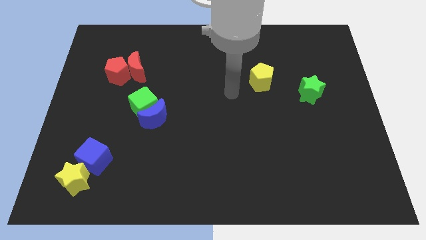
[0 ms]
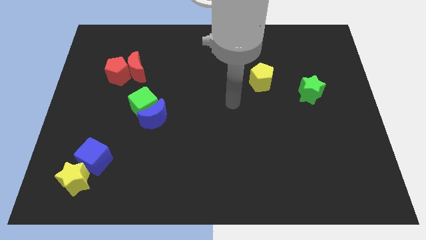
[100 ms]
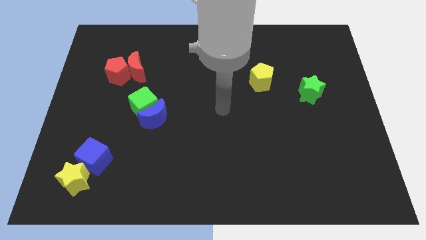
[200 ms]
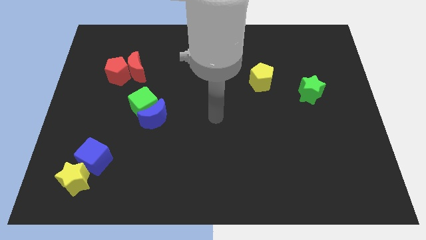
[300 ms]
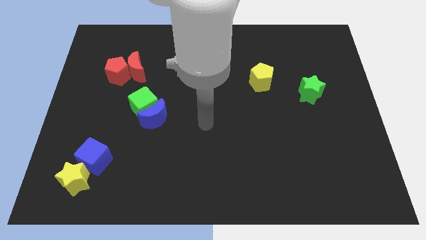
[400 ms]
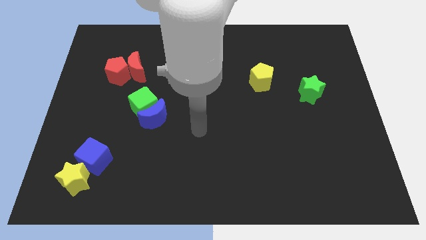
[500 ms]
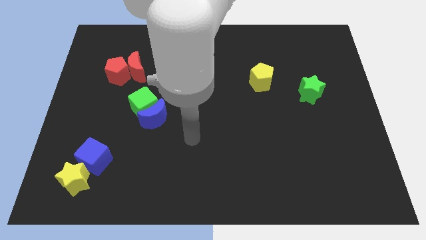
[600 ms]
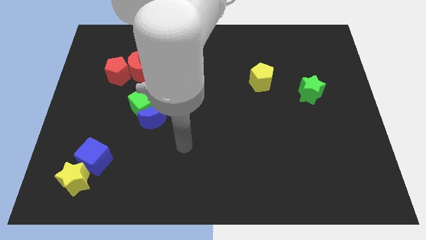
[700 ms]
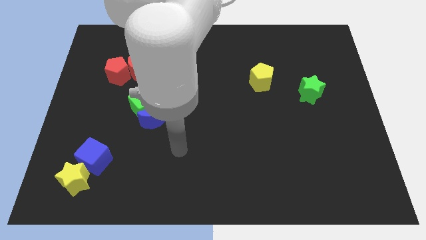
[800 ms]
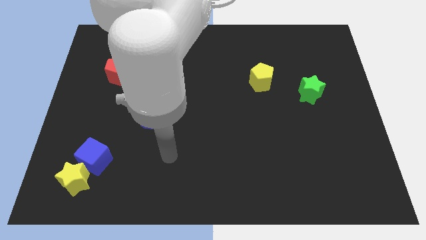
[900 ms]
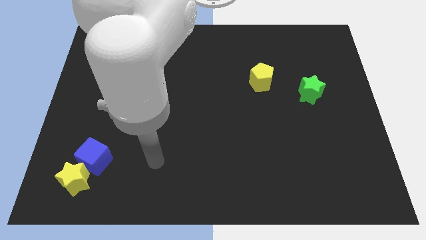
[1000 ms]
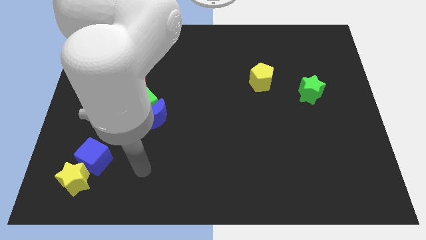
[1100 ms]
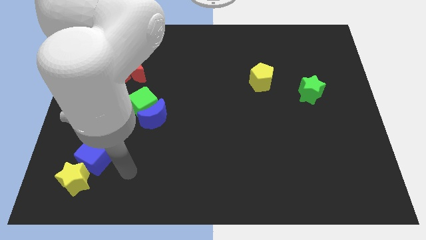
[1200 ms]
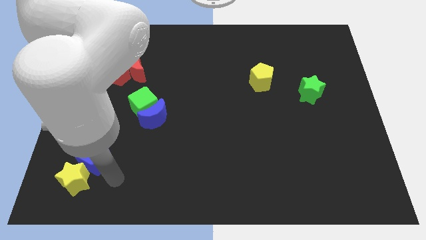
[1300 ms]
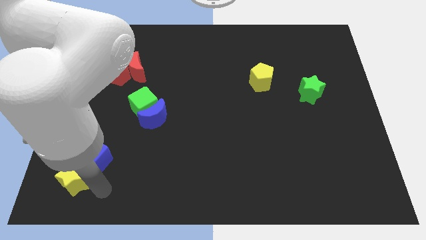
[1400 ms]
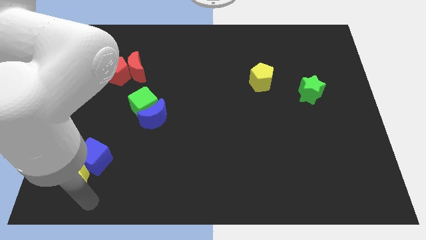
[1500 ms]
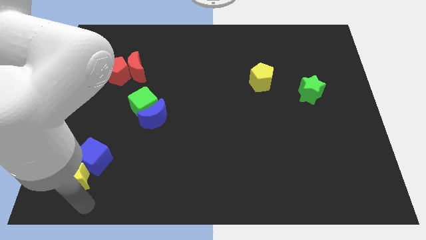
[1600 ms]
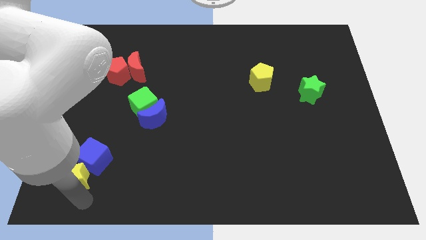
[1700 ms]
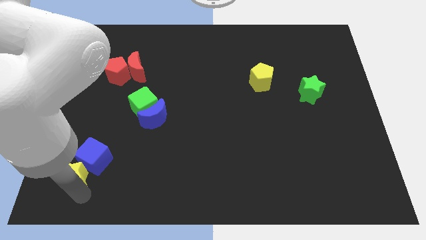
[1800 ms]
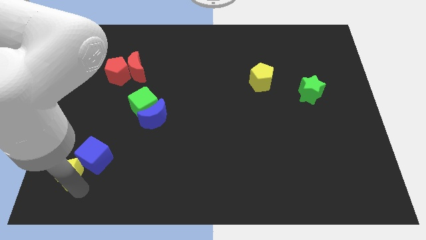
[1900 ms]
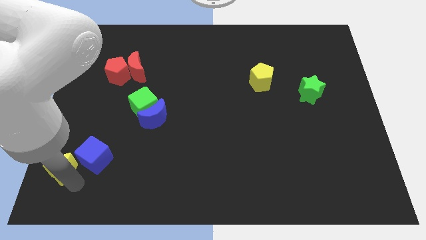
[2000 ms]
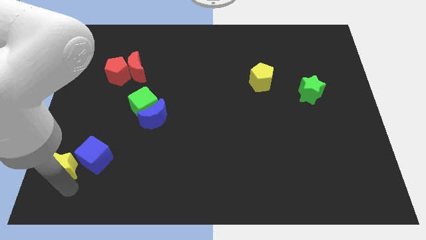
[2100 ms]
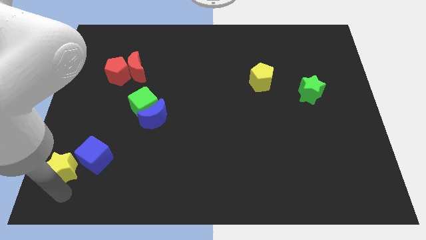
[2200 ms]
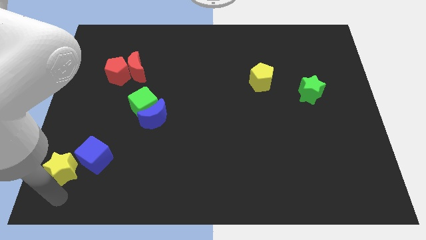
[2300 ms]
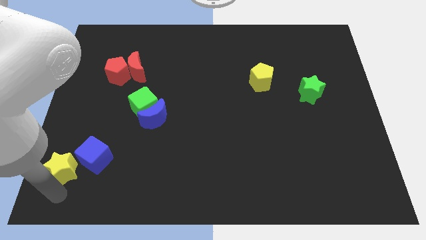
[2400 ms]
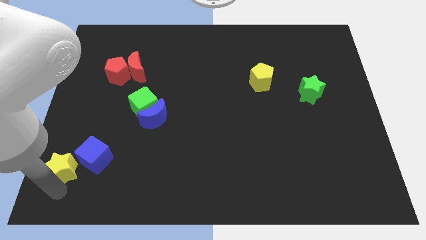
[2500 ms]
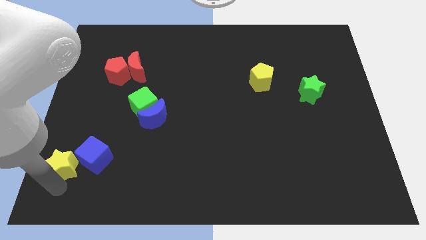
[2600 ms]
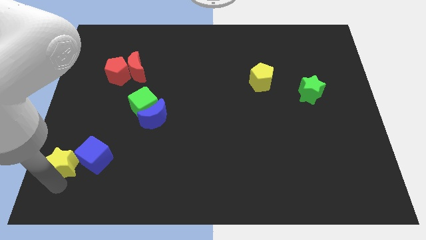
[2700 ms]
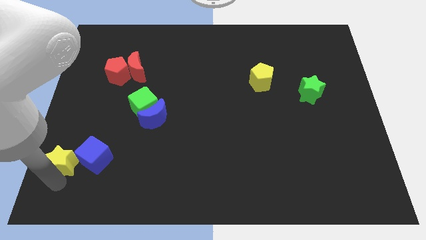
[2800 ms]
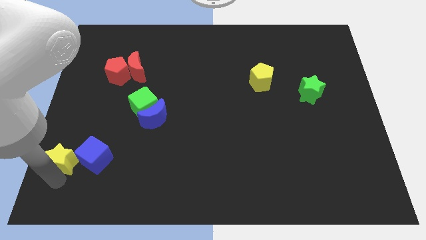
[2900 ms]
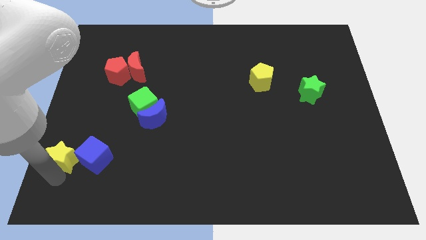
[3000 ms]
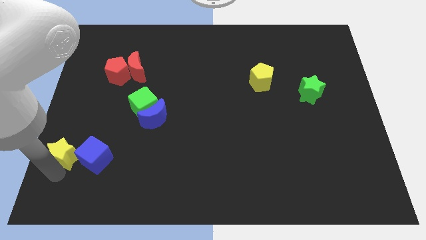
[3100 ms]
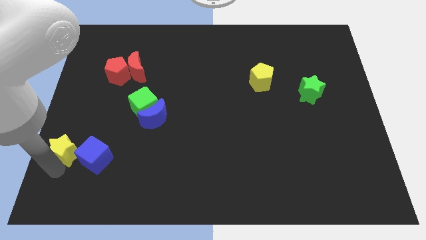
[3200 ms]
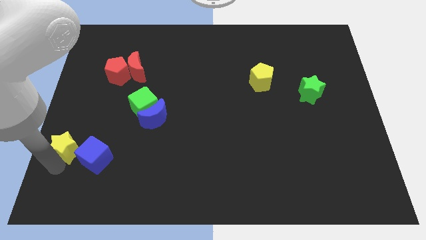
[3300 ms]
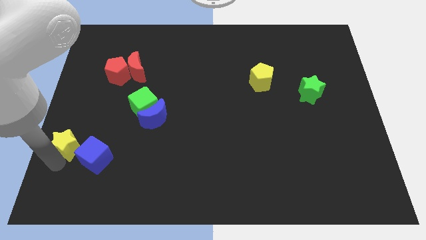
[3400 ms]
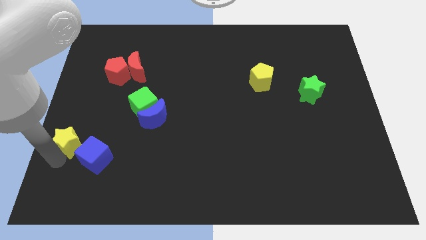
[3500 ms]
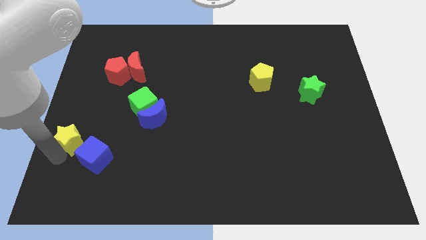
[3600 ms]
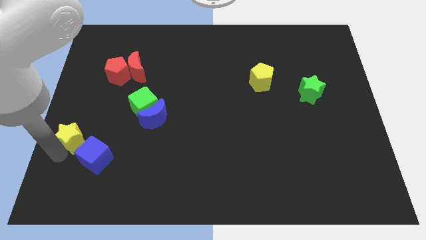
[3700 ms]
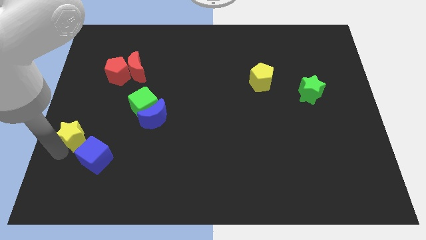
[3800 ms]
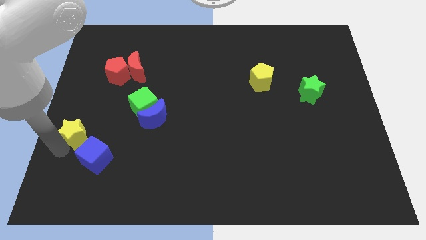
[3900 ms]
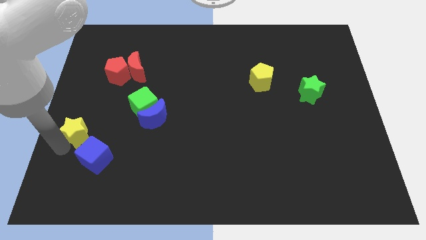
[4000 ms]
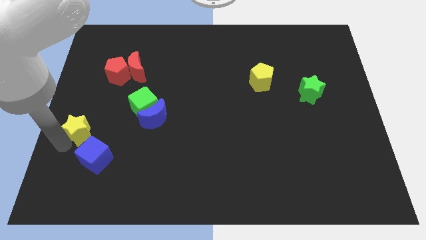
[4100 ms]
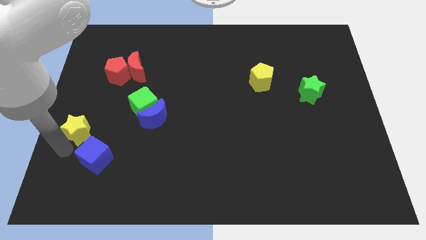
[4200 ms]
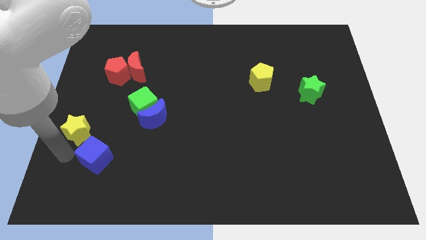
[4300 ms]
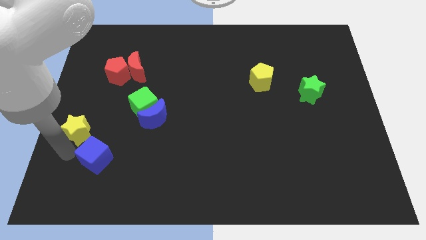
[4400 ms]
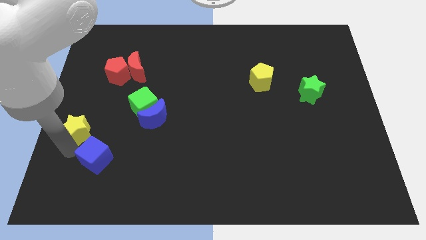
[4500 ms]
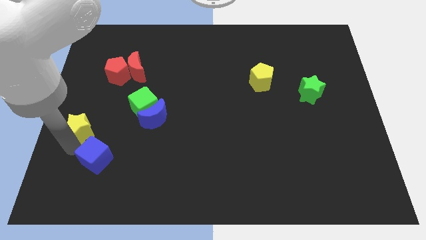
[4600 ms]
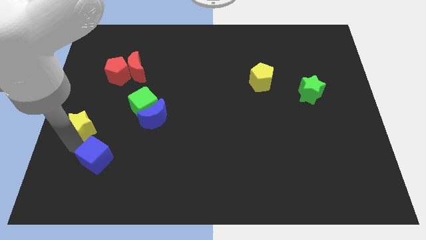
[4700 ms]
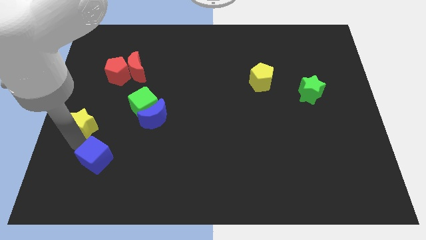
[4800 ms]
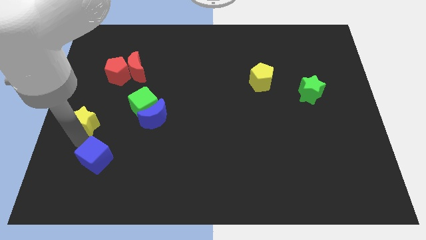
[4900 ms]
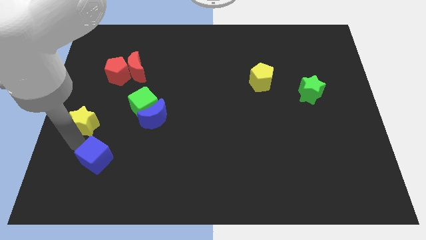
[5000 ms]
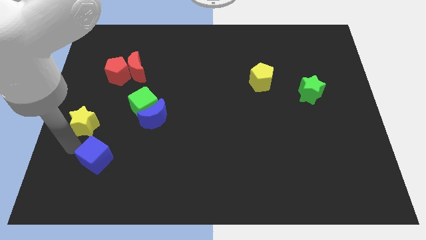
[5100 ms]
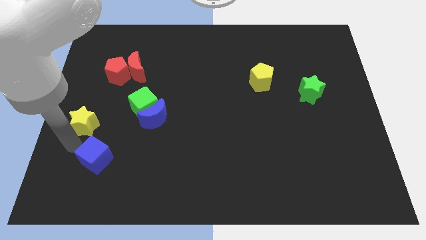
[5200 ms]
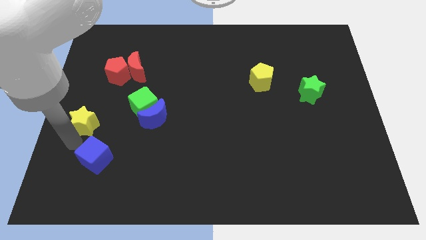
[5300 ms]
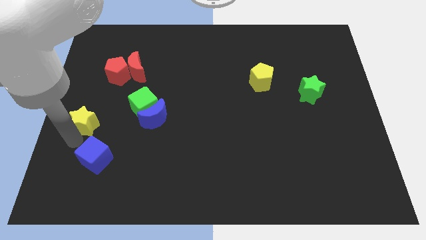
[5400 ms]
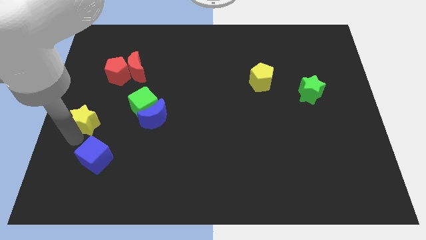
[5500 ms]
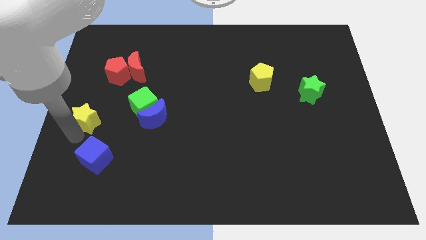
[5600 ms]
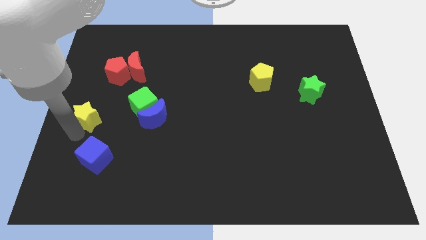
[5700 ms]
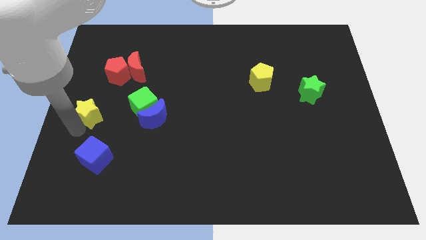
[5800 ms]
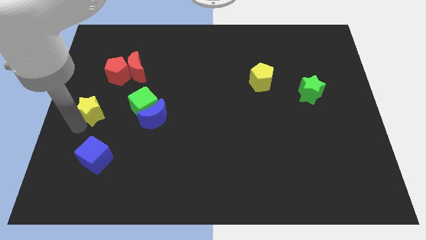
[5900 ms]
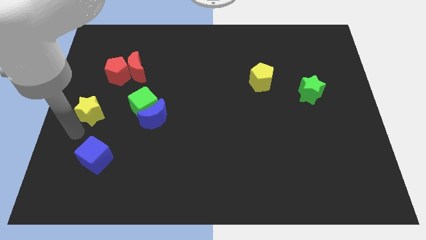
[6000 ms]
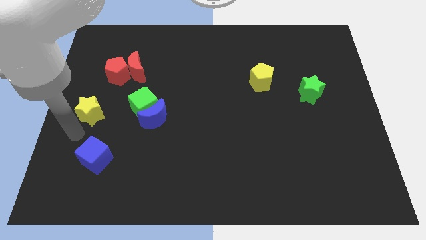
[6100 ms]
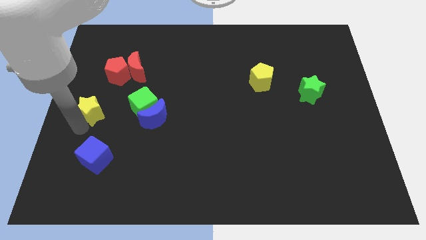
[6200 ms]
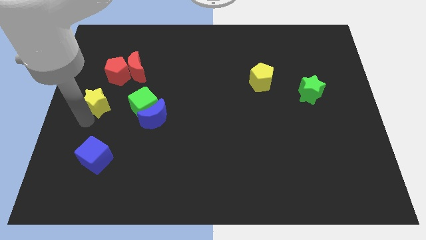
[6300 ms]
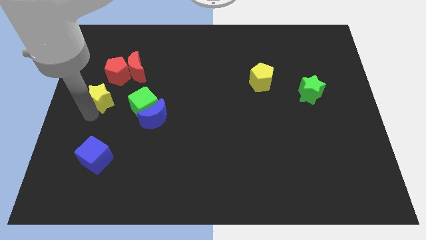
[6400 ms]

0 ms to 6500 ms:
put the yellow star diagonally down and to the left of the red moon

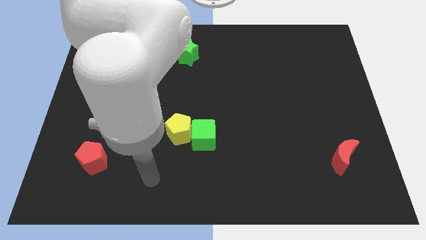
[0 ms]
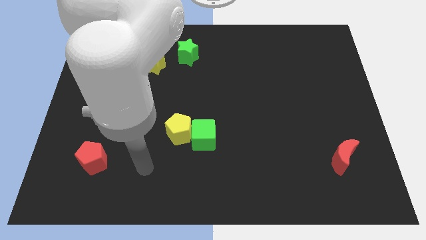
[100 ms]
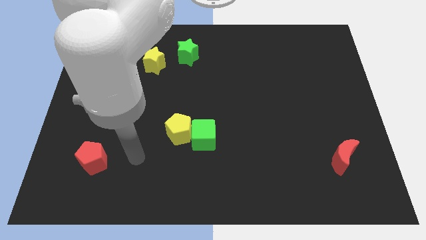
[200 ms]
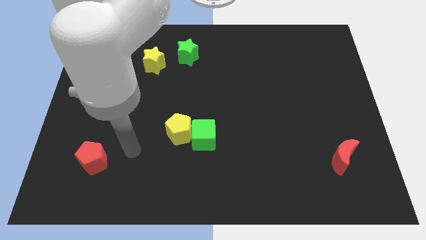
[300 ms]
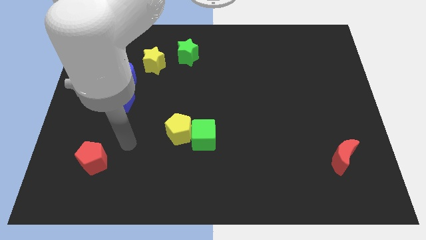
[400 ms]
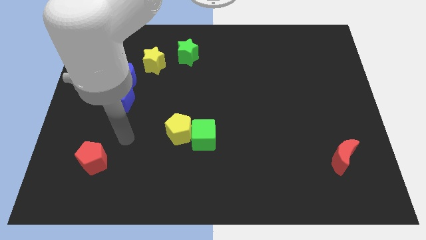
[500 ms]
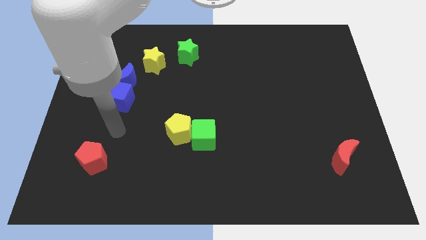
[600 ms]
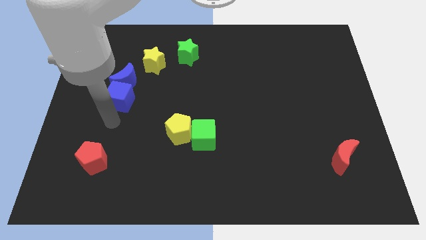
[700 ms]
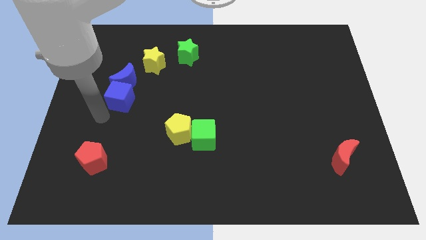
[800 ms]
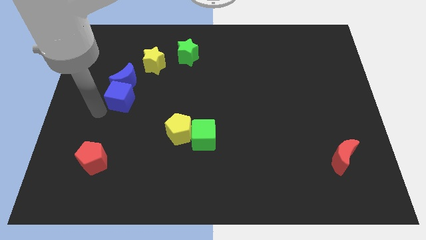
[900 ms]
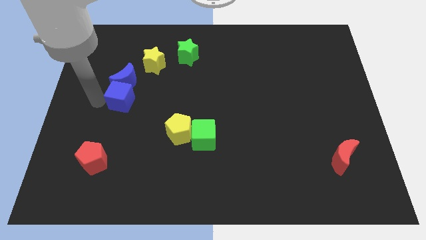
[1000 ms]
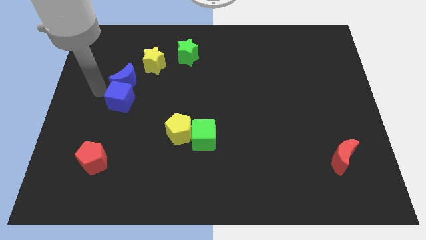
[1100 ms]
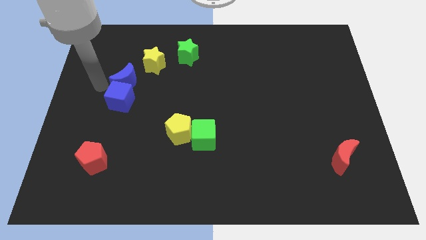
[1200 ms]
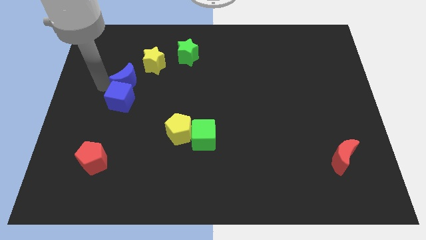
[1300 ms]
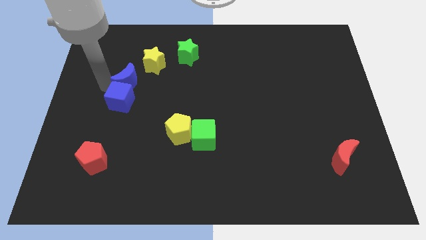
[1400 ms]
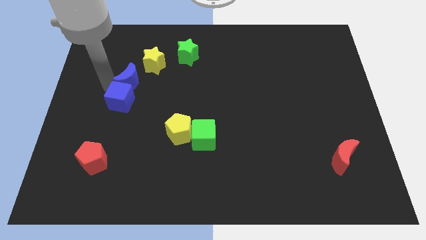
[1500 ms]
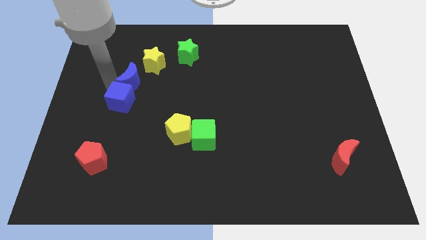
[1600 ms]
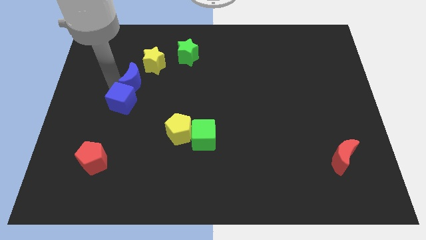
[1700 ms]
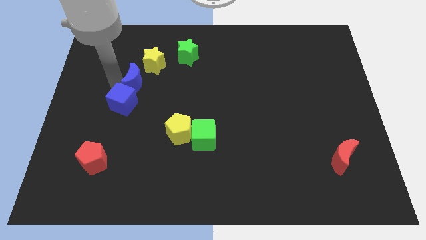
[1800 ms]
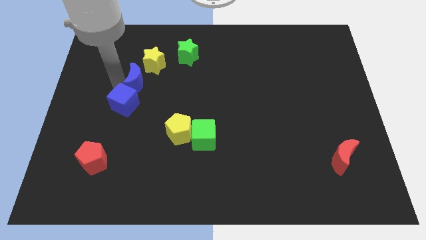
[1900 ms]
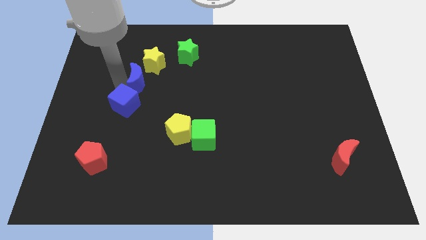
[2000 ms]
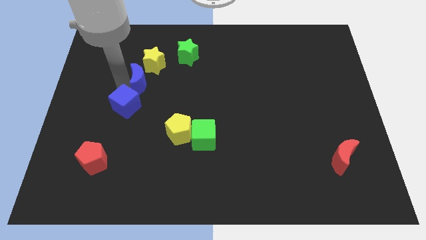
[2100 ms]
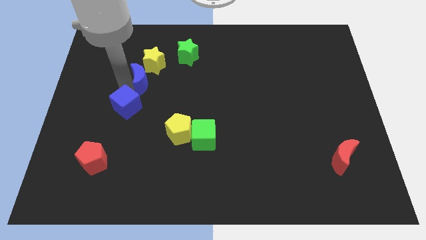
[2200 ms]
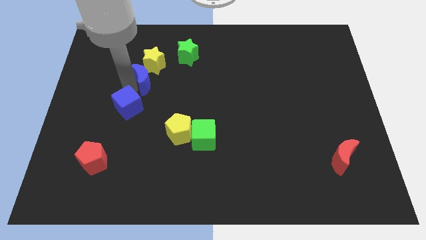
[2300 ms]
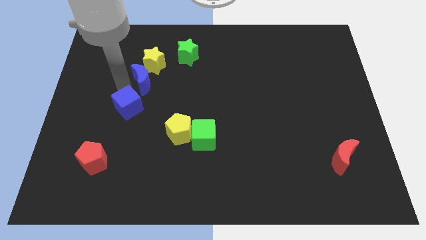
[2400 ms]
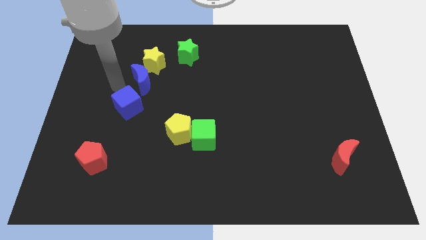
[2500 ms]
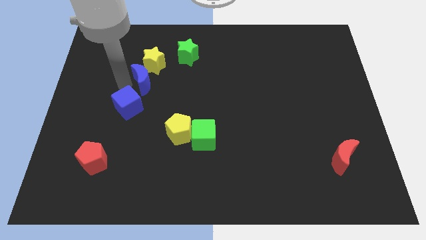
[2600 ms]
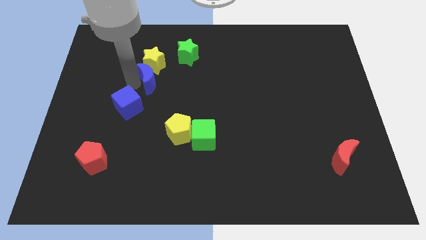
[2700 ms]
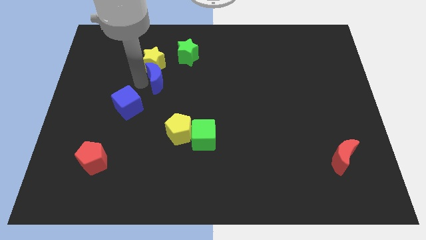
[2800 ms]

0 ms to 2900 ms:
move the blue moon to the bottom left side of the green star
